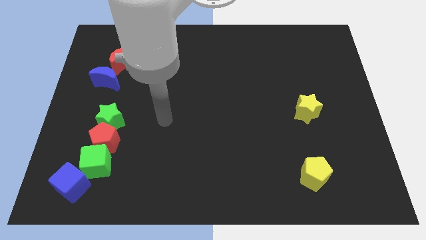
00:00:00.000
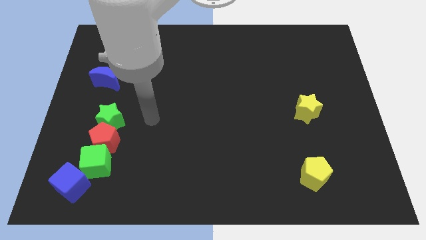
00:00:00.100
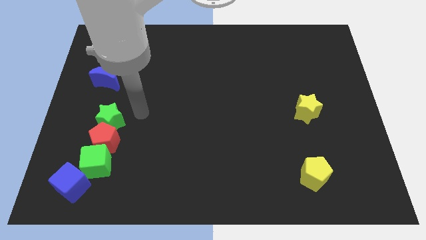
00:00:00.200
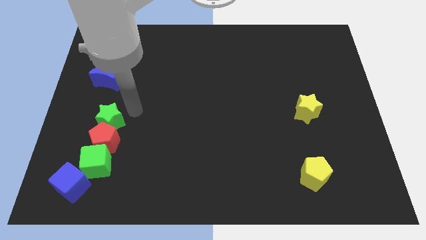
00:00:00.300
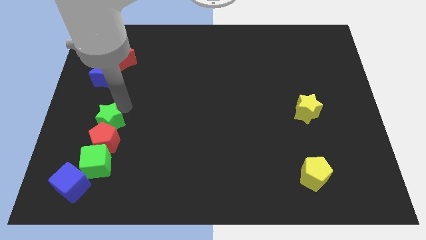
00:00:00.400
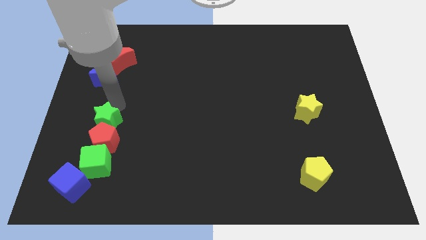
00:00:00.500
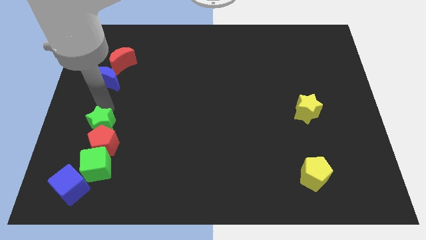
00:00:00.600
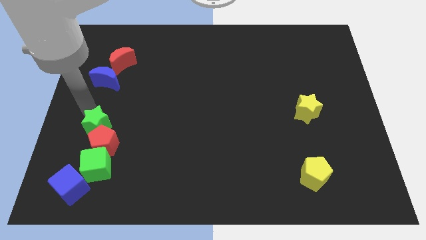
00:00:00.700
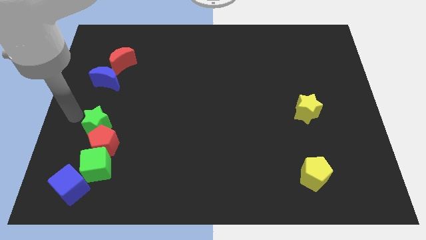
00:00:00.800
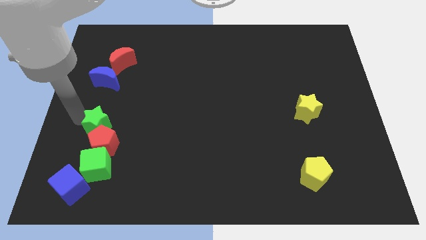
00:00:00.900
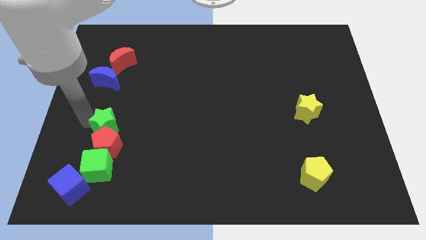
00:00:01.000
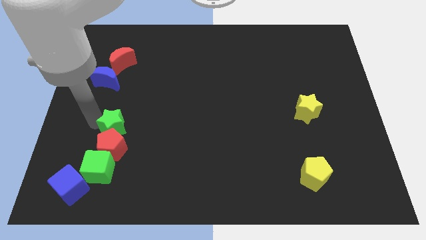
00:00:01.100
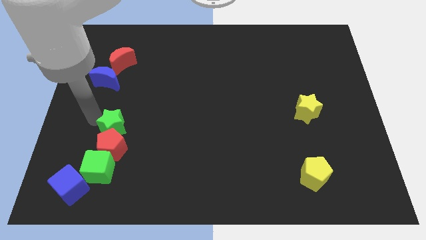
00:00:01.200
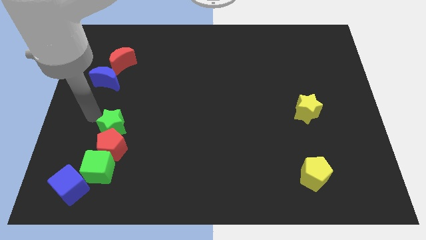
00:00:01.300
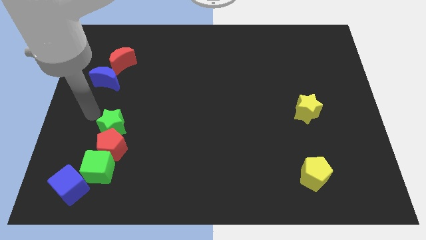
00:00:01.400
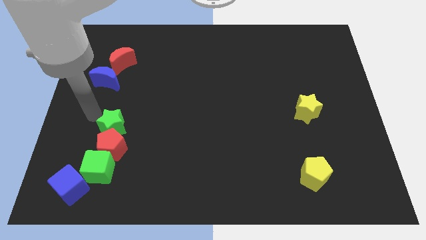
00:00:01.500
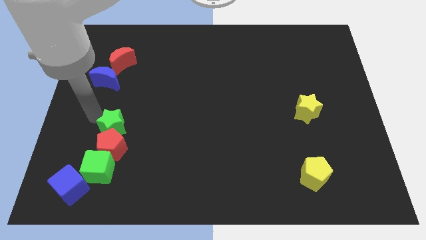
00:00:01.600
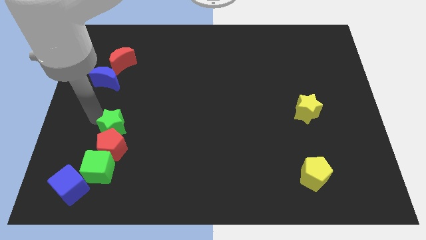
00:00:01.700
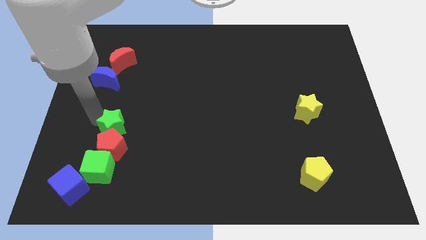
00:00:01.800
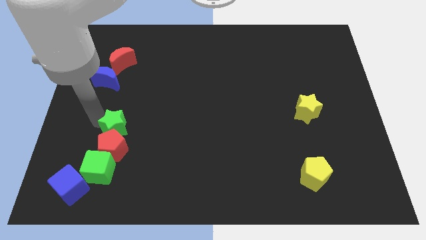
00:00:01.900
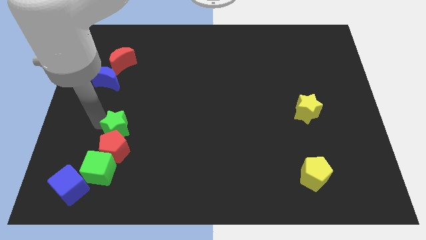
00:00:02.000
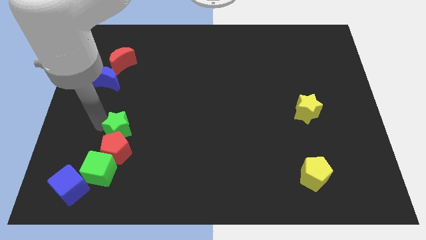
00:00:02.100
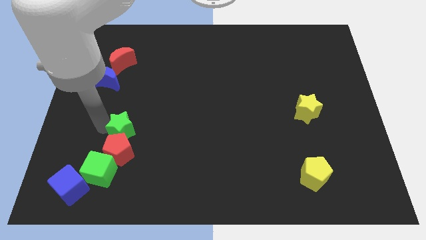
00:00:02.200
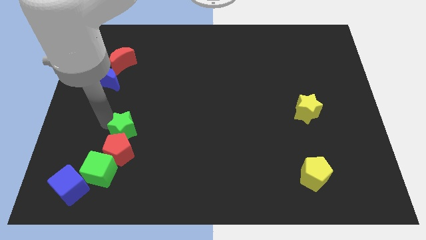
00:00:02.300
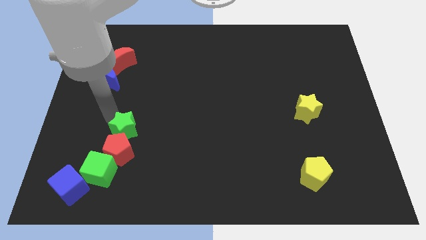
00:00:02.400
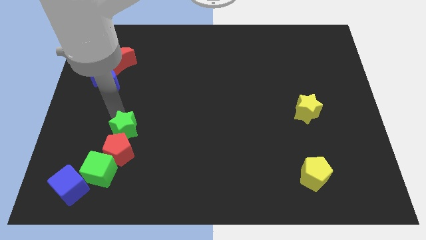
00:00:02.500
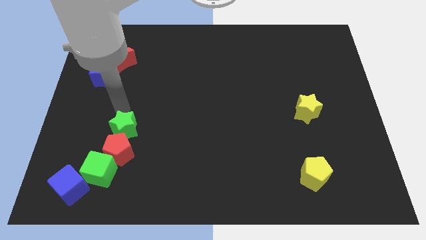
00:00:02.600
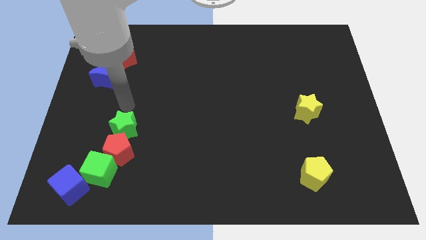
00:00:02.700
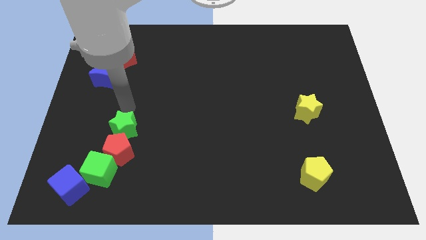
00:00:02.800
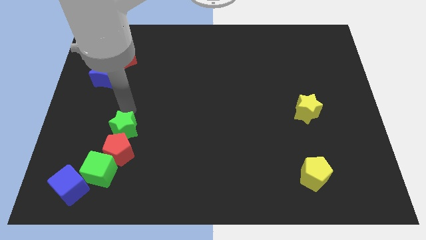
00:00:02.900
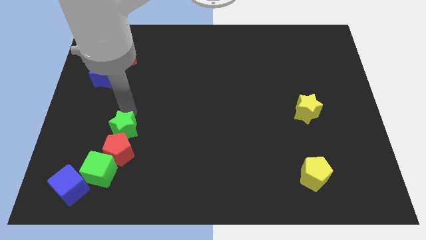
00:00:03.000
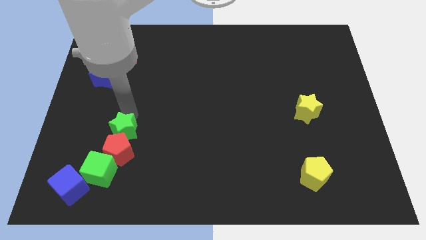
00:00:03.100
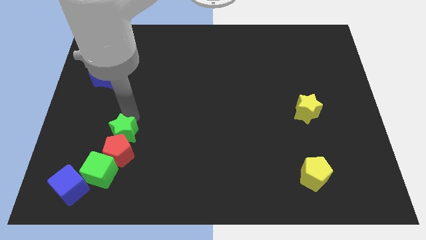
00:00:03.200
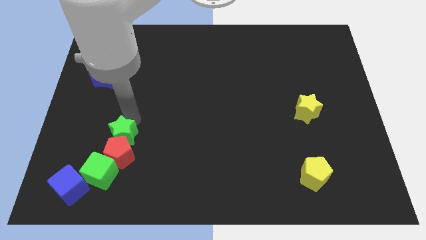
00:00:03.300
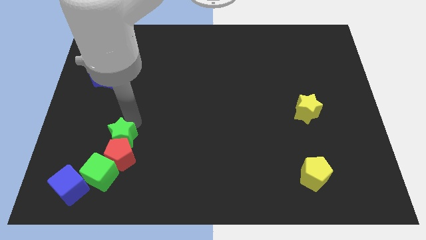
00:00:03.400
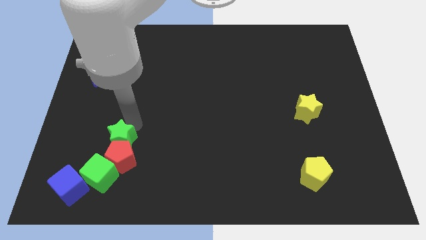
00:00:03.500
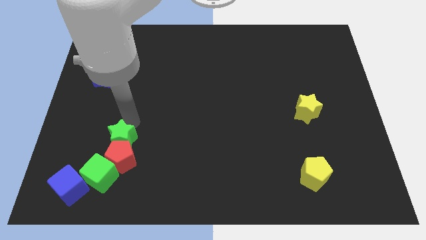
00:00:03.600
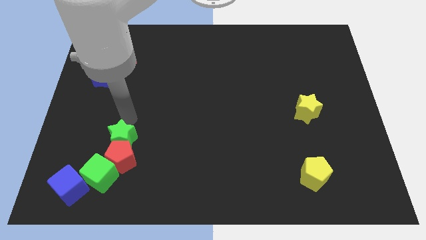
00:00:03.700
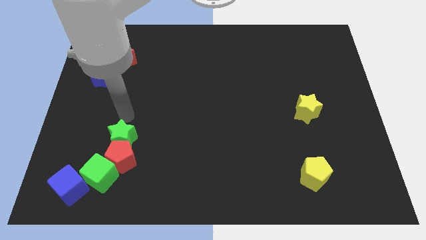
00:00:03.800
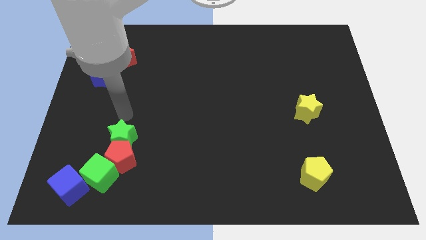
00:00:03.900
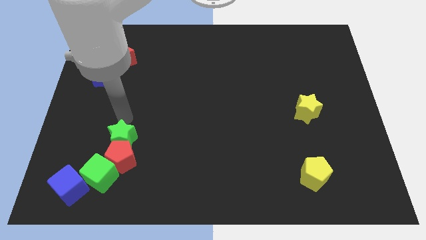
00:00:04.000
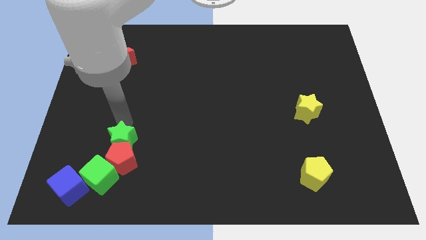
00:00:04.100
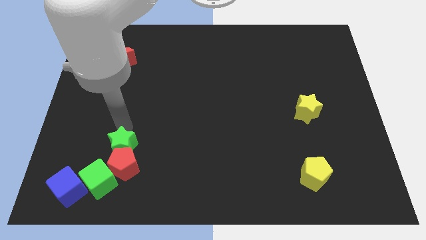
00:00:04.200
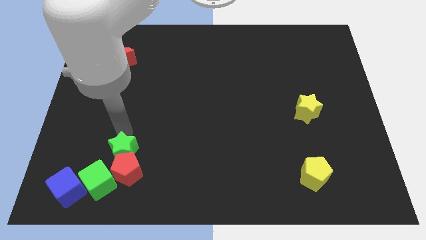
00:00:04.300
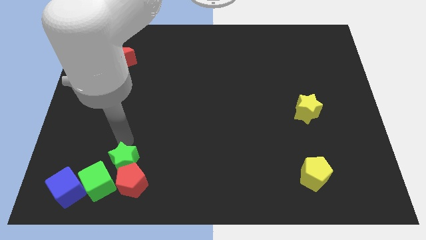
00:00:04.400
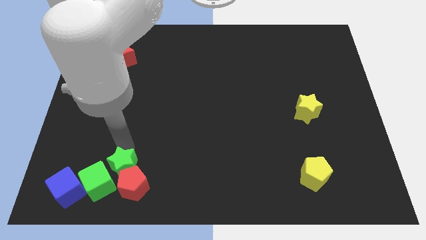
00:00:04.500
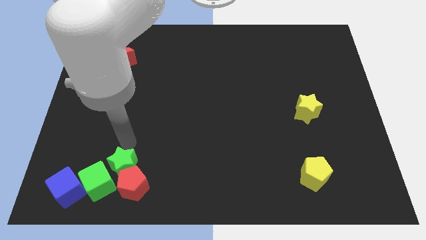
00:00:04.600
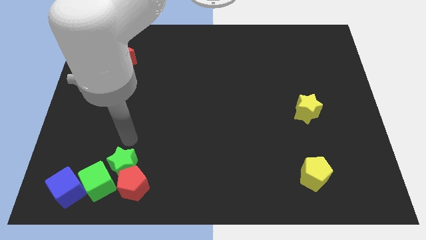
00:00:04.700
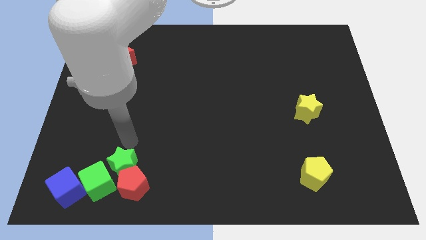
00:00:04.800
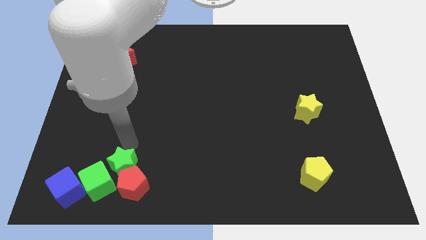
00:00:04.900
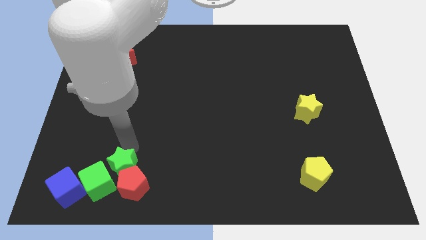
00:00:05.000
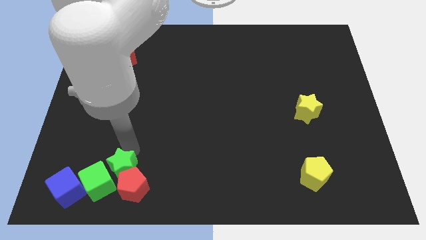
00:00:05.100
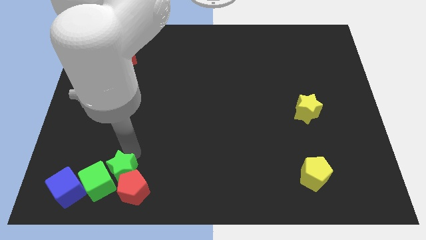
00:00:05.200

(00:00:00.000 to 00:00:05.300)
put the green star right of the blue cube

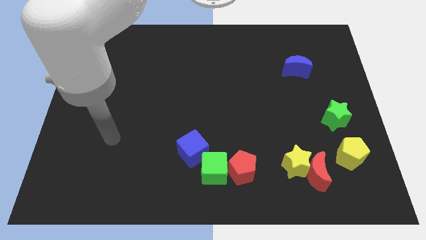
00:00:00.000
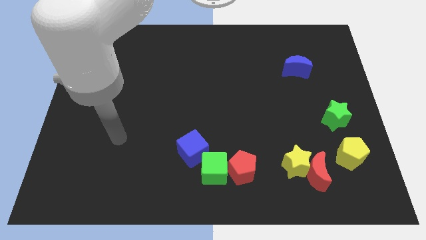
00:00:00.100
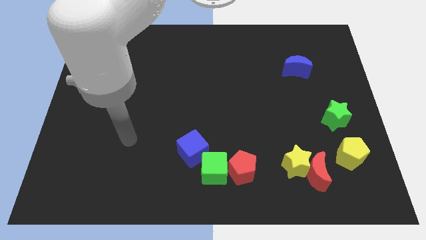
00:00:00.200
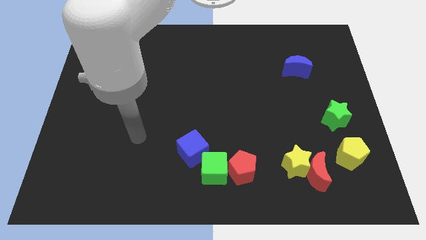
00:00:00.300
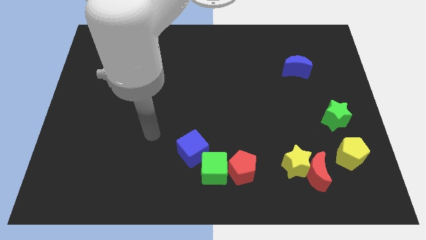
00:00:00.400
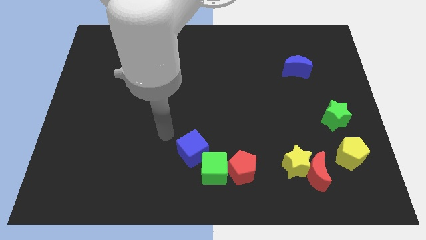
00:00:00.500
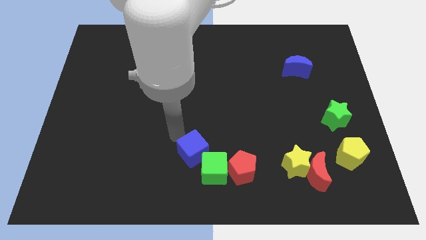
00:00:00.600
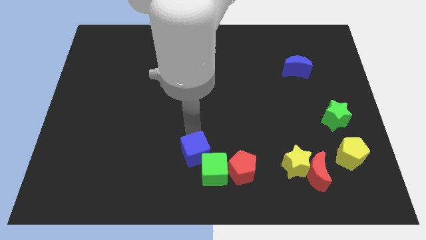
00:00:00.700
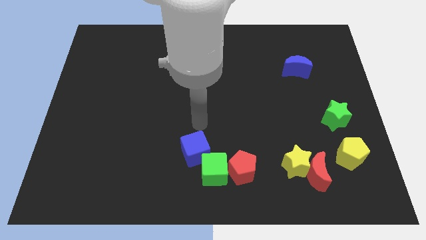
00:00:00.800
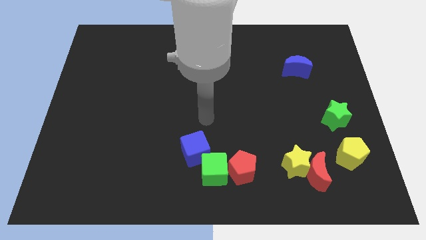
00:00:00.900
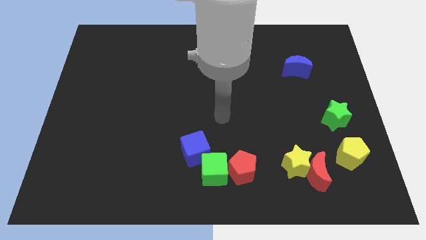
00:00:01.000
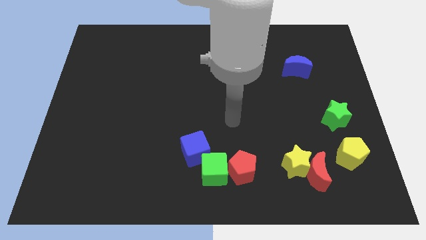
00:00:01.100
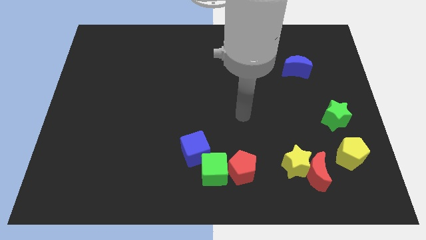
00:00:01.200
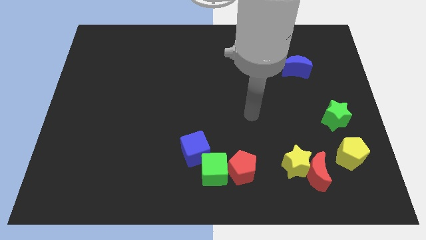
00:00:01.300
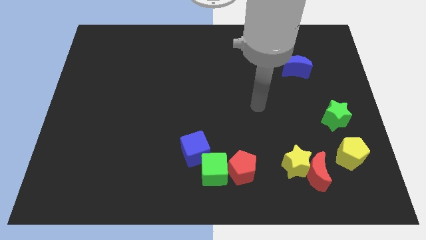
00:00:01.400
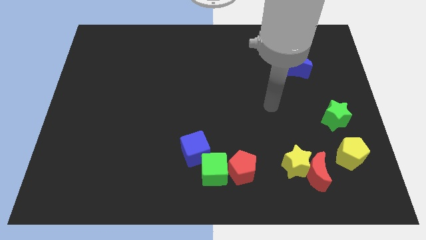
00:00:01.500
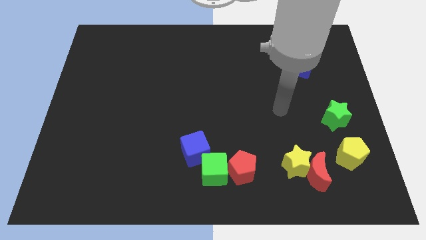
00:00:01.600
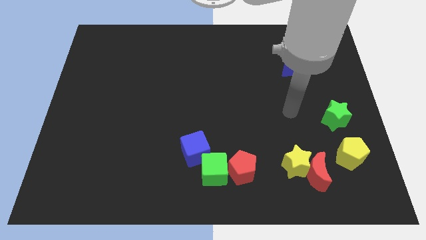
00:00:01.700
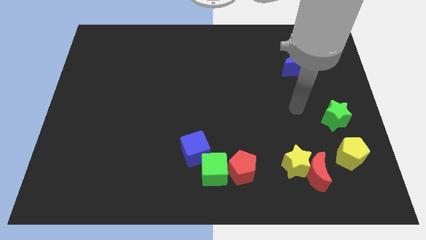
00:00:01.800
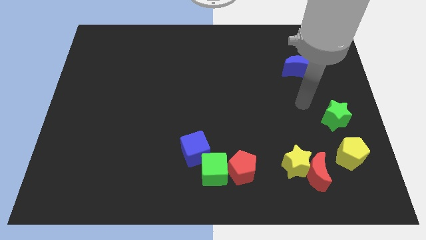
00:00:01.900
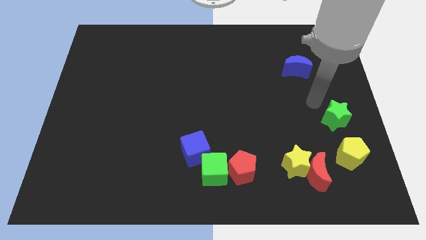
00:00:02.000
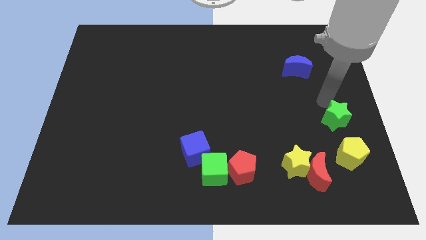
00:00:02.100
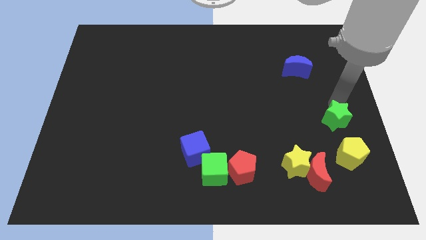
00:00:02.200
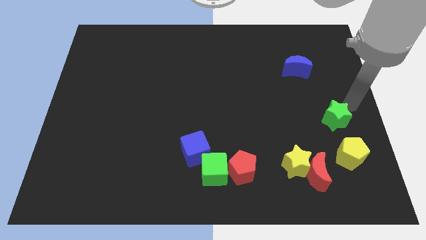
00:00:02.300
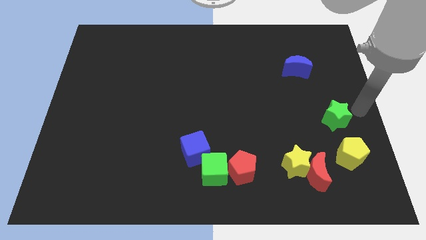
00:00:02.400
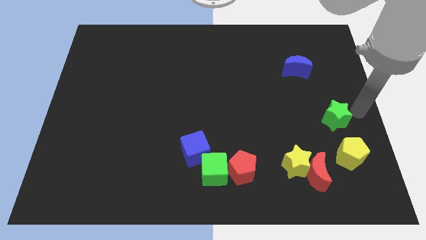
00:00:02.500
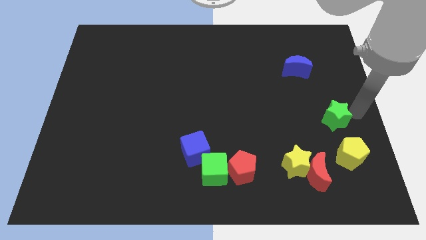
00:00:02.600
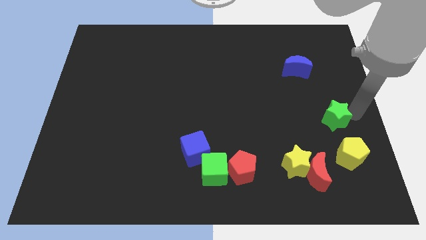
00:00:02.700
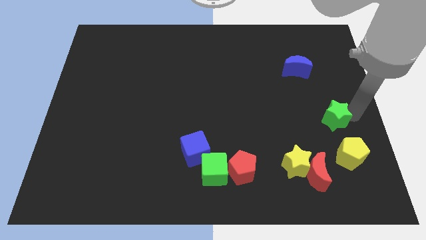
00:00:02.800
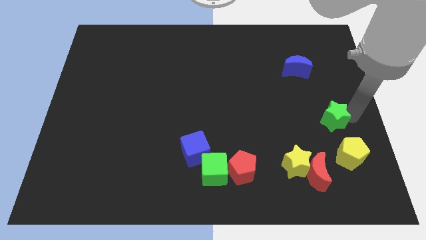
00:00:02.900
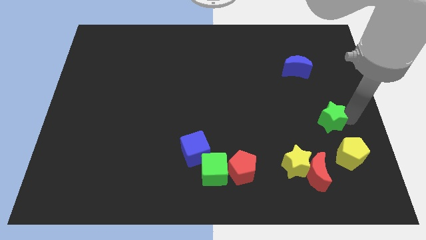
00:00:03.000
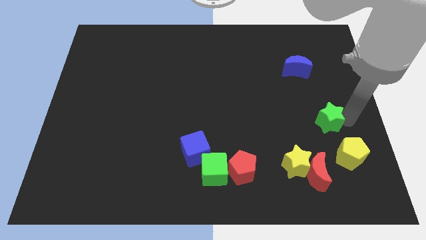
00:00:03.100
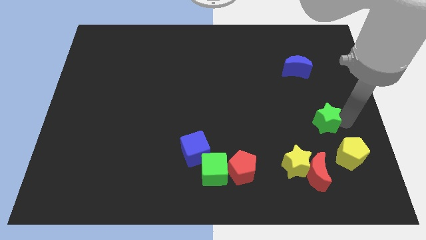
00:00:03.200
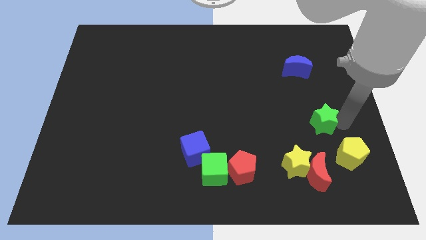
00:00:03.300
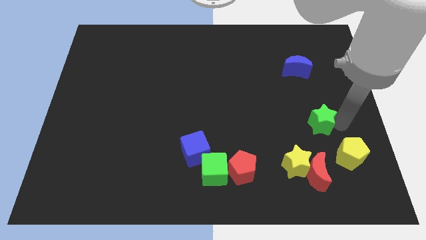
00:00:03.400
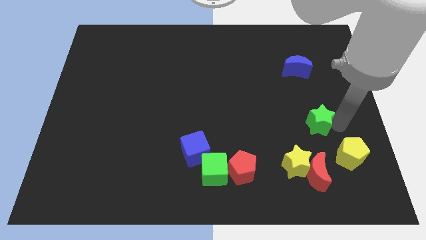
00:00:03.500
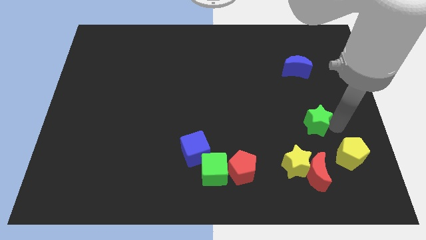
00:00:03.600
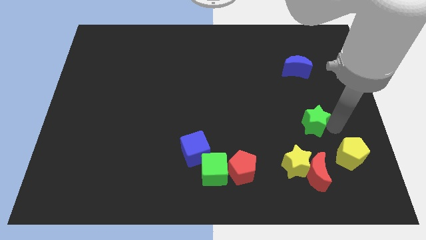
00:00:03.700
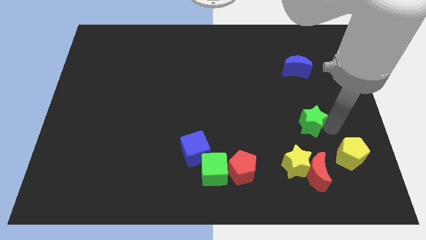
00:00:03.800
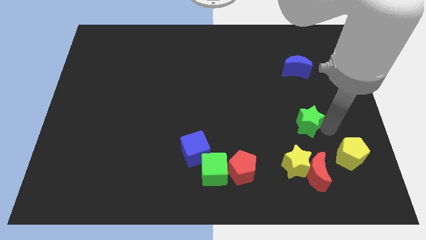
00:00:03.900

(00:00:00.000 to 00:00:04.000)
push the green star to the top of the yellow star
